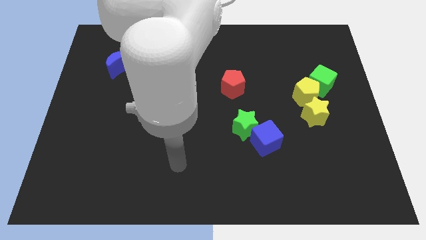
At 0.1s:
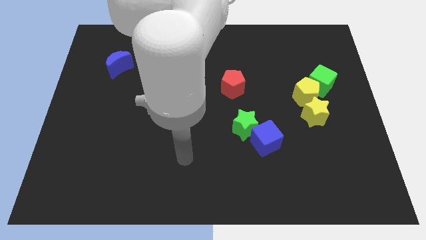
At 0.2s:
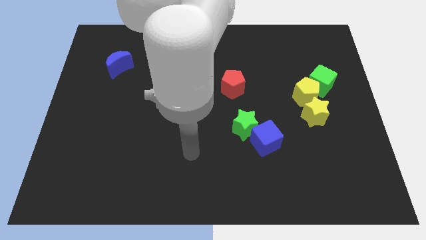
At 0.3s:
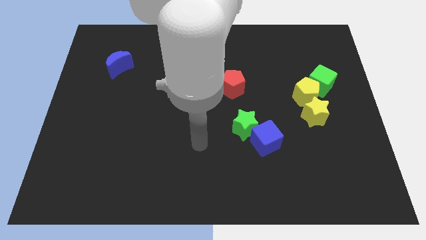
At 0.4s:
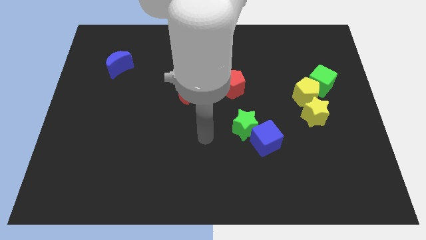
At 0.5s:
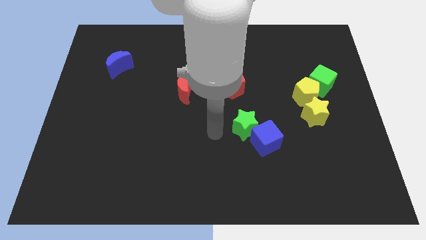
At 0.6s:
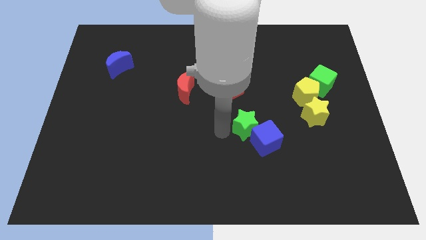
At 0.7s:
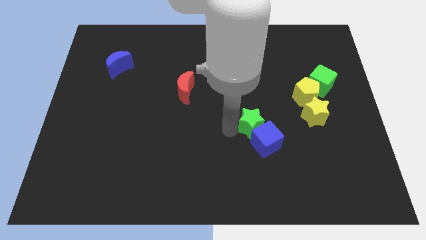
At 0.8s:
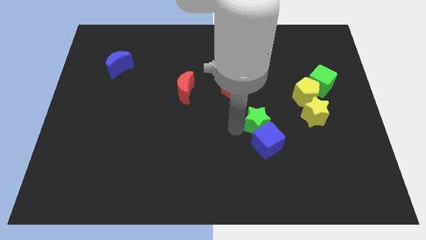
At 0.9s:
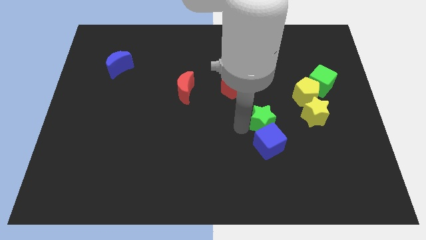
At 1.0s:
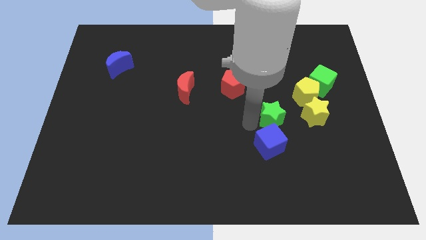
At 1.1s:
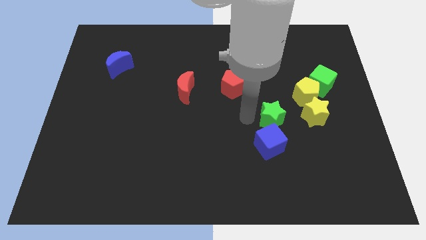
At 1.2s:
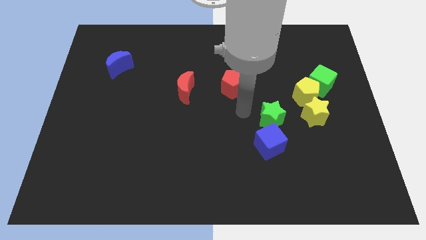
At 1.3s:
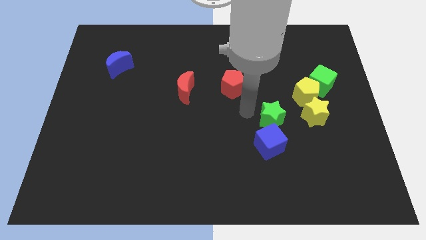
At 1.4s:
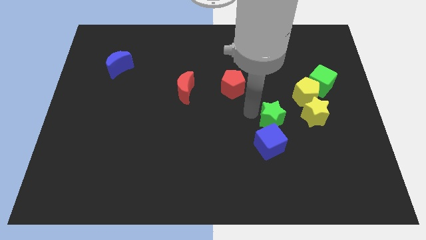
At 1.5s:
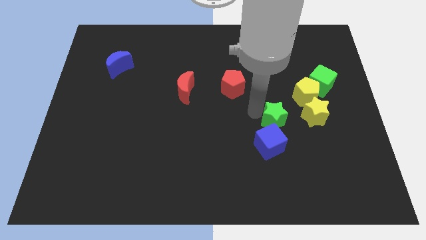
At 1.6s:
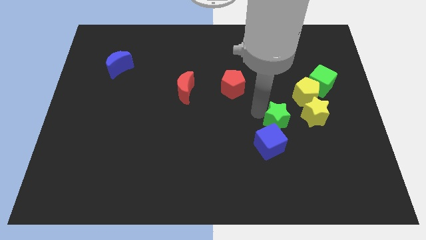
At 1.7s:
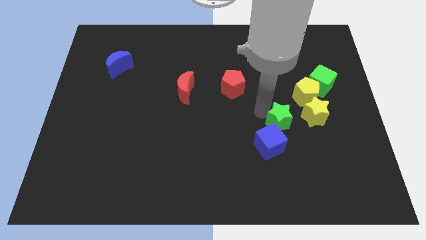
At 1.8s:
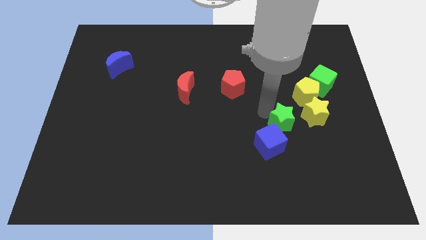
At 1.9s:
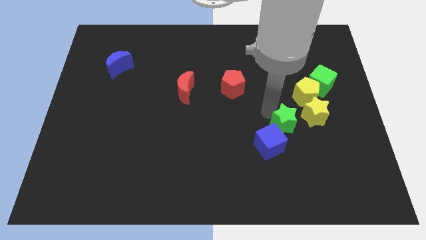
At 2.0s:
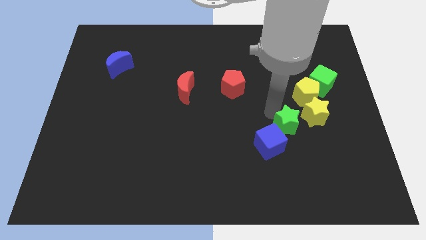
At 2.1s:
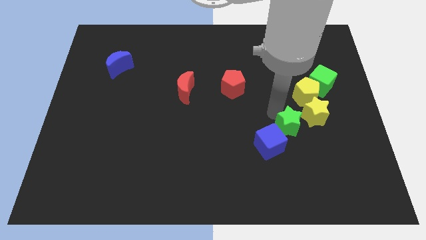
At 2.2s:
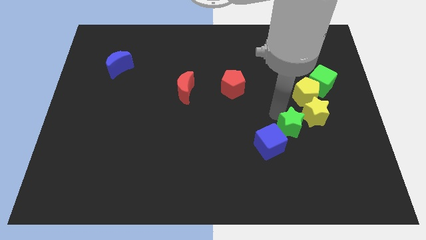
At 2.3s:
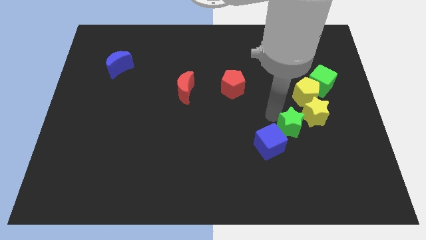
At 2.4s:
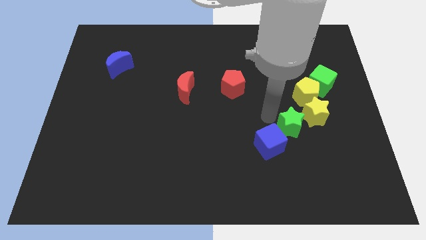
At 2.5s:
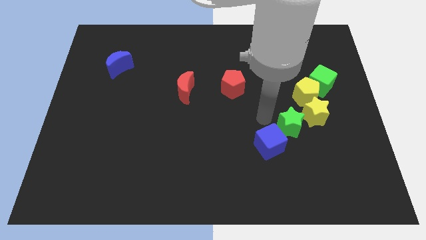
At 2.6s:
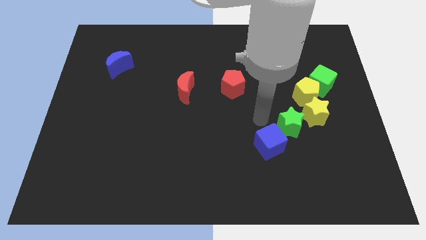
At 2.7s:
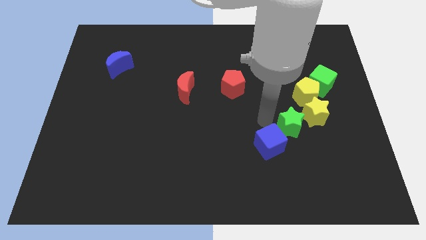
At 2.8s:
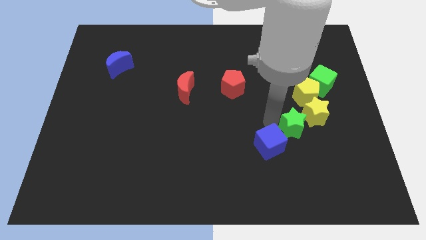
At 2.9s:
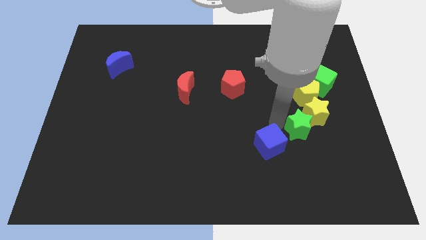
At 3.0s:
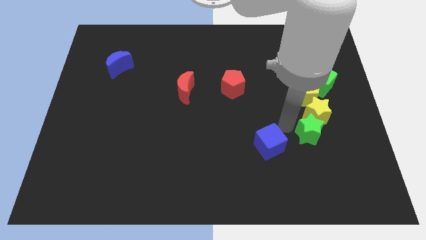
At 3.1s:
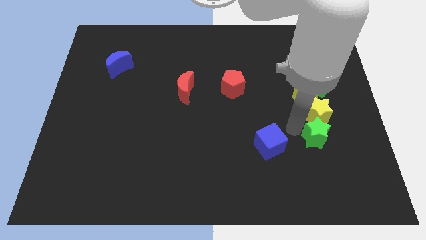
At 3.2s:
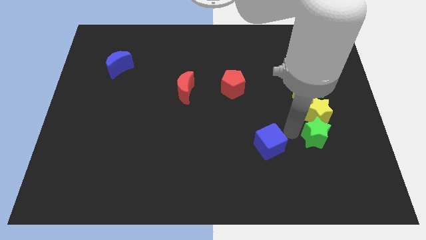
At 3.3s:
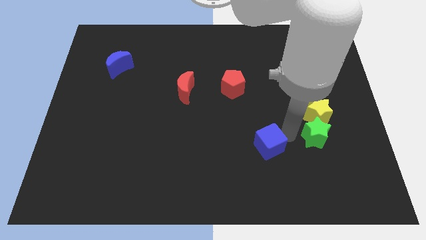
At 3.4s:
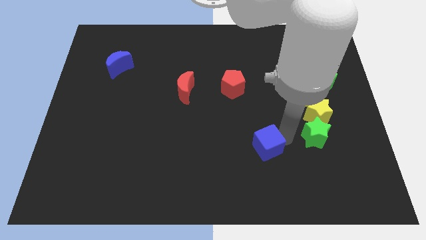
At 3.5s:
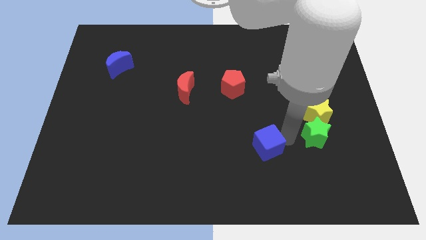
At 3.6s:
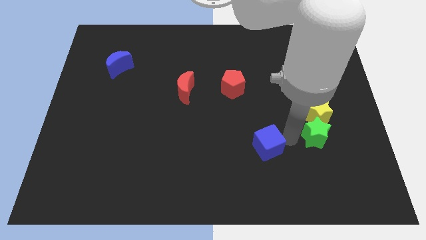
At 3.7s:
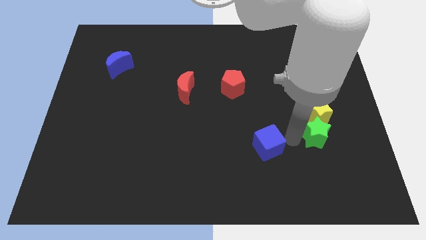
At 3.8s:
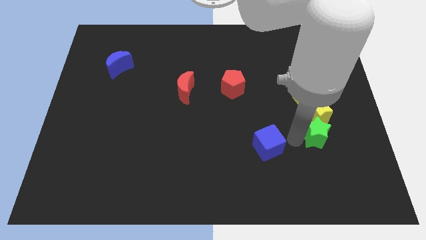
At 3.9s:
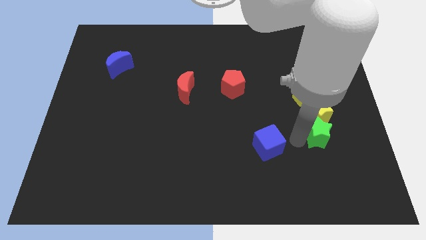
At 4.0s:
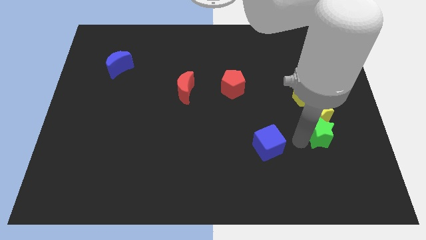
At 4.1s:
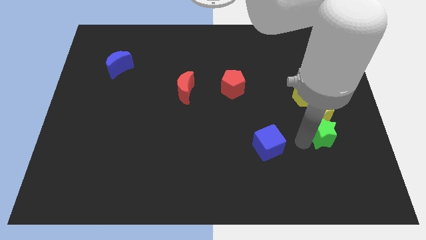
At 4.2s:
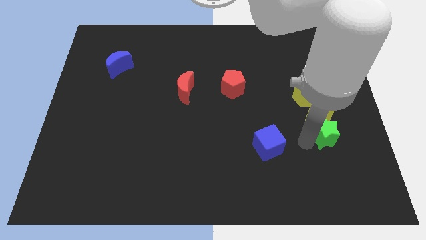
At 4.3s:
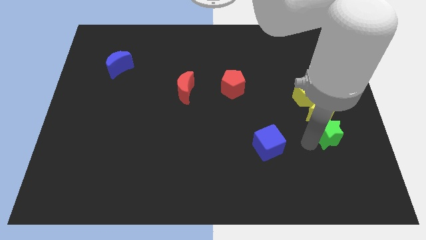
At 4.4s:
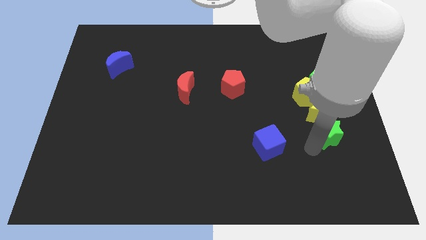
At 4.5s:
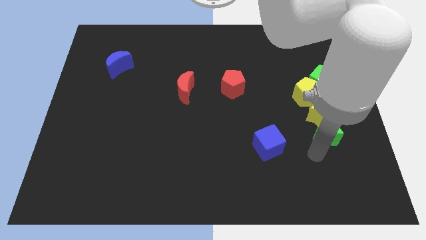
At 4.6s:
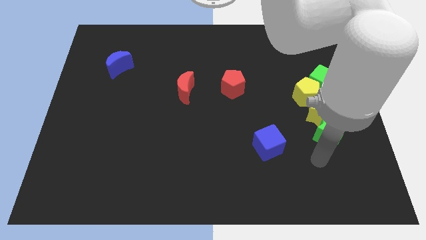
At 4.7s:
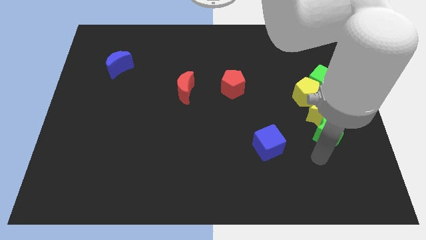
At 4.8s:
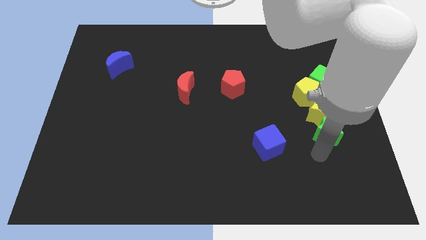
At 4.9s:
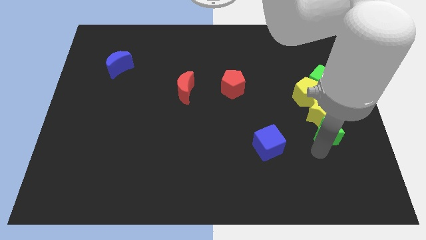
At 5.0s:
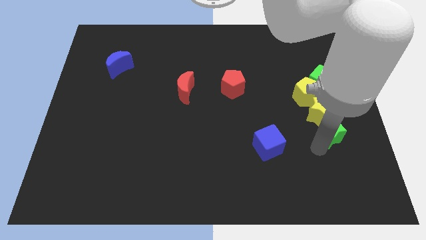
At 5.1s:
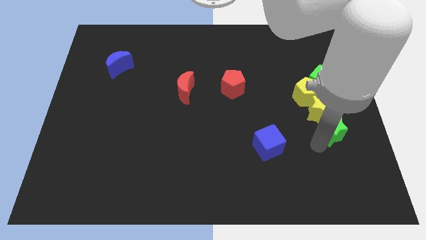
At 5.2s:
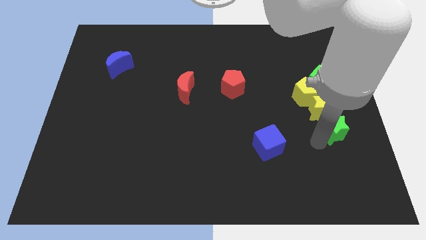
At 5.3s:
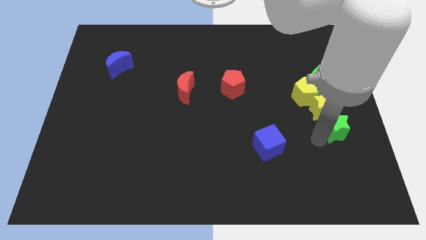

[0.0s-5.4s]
push the green star to the bottom right of the yellow pentagon

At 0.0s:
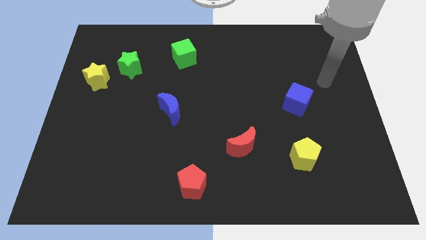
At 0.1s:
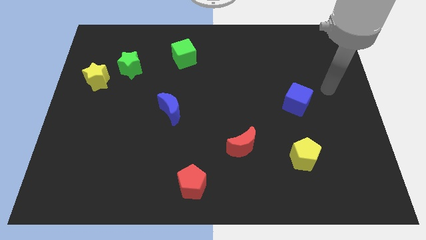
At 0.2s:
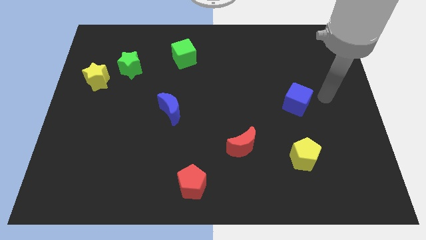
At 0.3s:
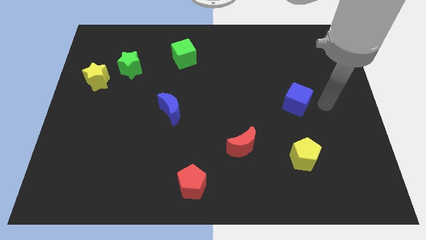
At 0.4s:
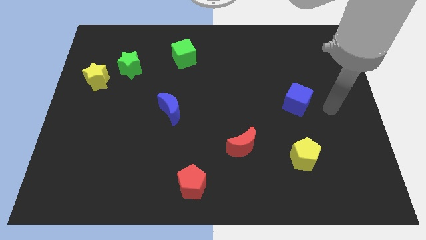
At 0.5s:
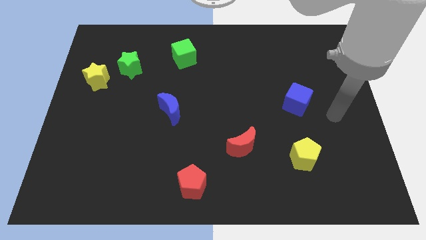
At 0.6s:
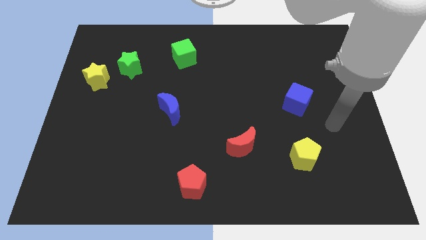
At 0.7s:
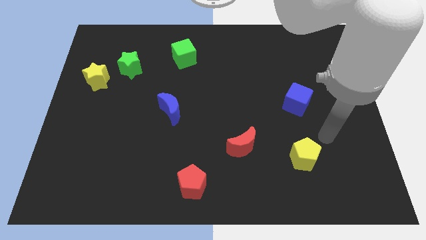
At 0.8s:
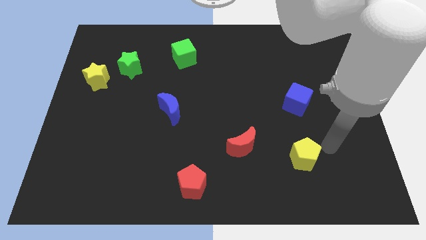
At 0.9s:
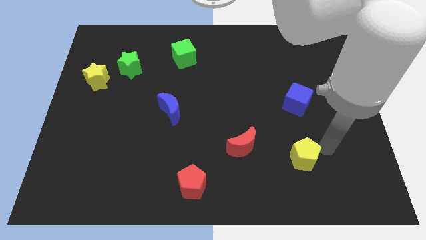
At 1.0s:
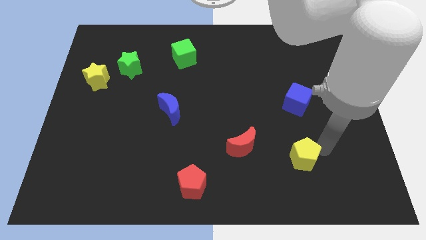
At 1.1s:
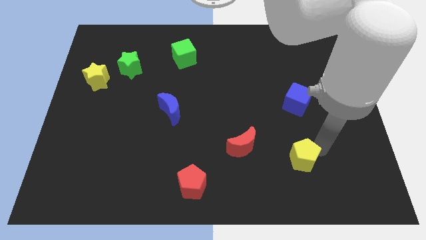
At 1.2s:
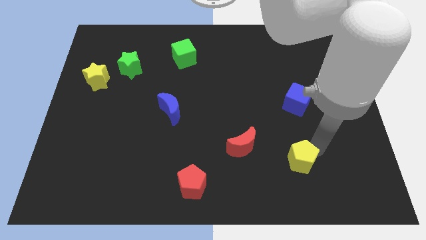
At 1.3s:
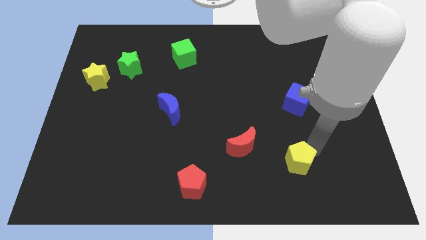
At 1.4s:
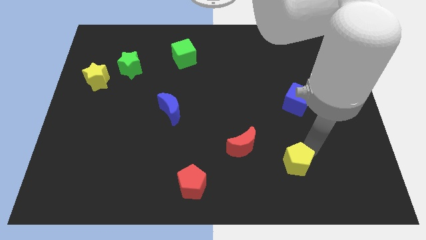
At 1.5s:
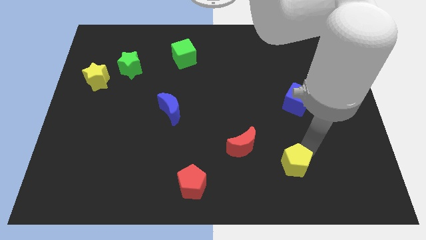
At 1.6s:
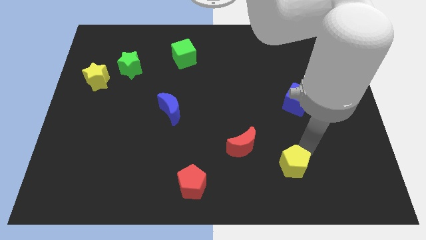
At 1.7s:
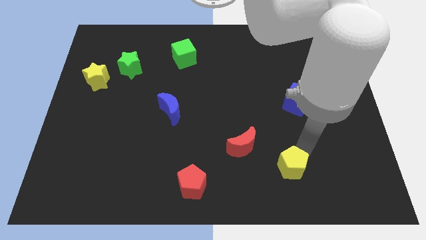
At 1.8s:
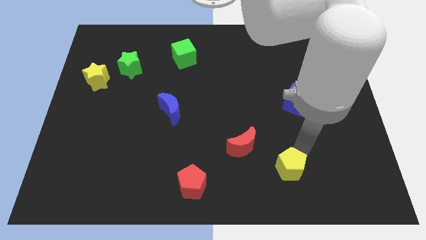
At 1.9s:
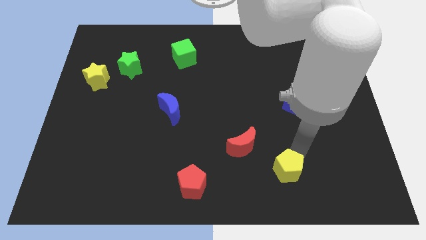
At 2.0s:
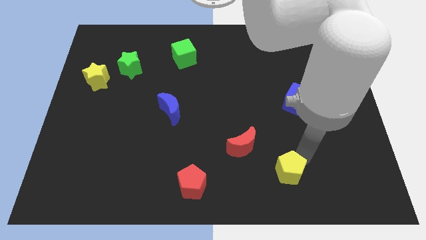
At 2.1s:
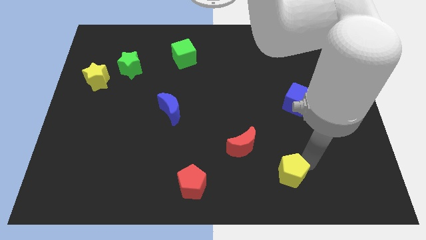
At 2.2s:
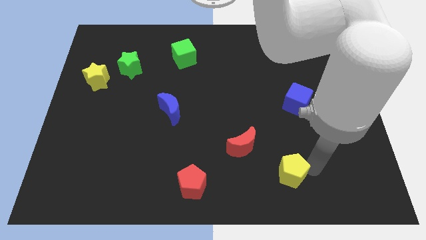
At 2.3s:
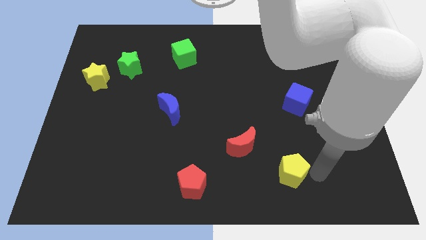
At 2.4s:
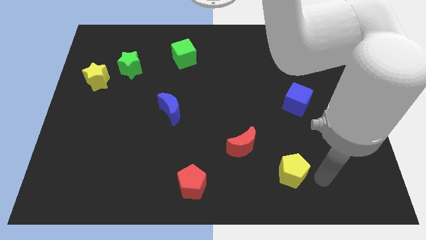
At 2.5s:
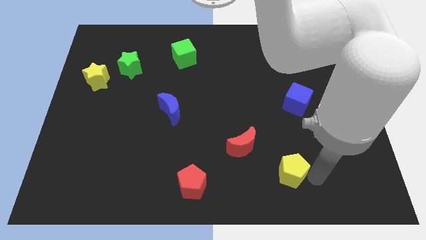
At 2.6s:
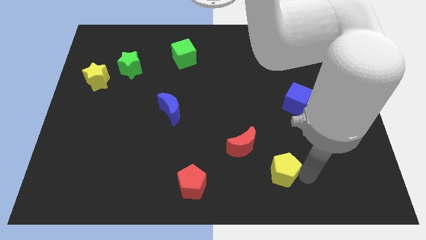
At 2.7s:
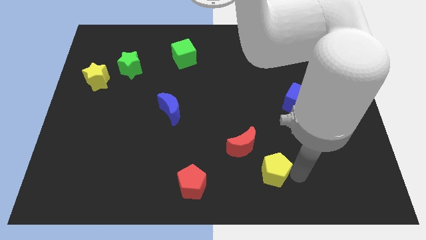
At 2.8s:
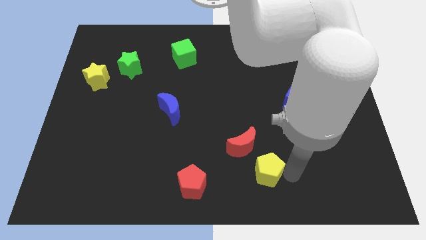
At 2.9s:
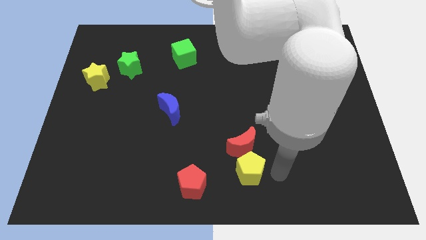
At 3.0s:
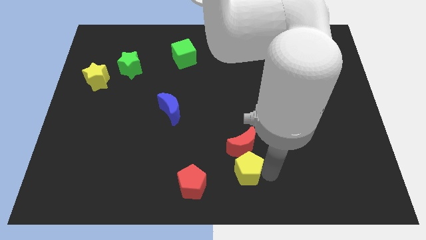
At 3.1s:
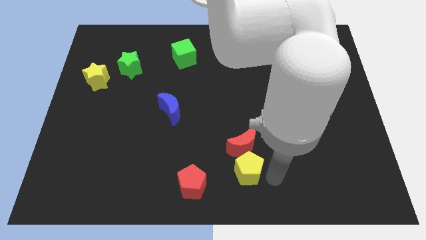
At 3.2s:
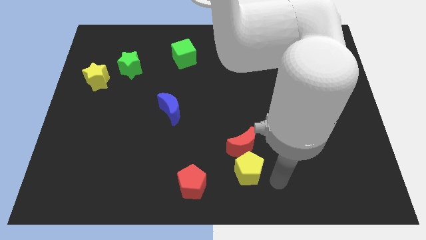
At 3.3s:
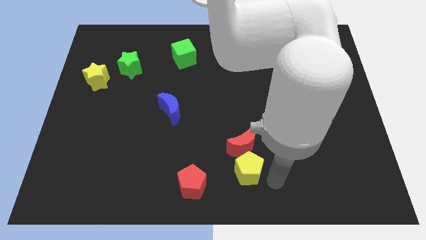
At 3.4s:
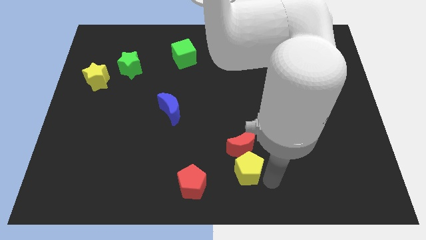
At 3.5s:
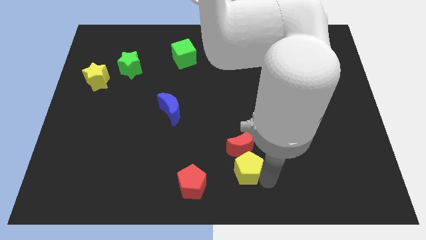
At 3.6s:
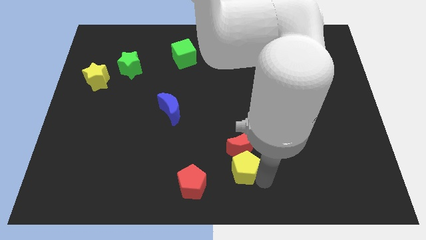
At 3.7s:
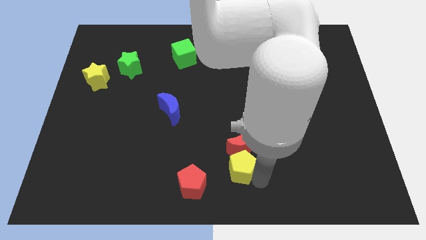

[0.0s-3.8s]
move the yellow pentagon to the top right side of the red pentagon
